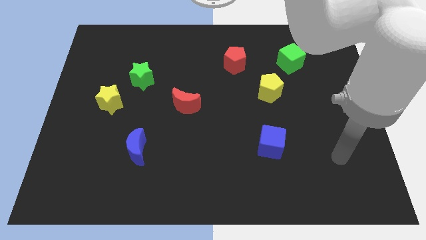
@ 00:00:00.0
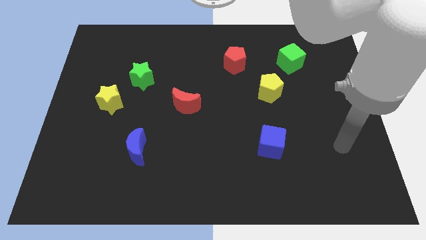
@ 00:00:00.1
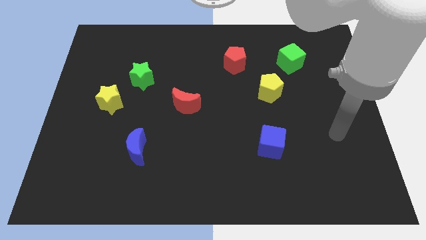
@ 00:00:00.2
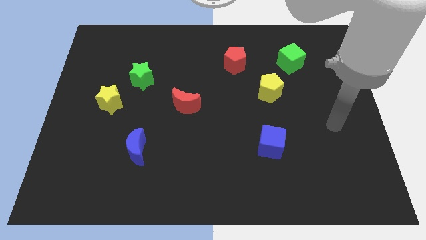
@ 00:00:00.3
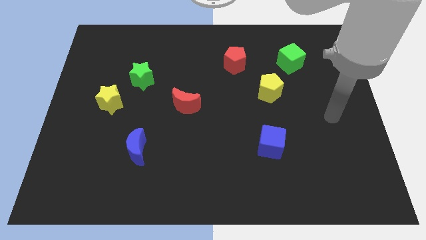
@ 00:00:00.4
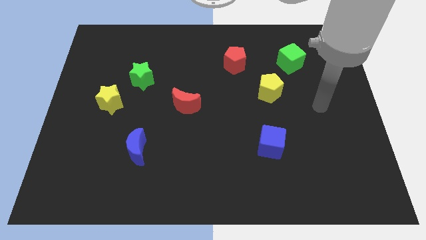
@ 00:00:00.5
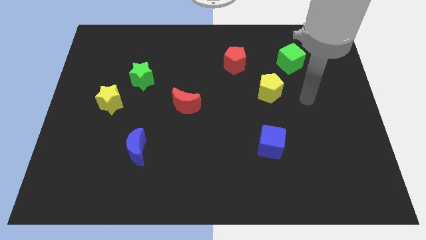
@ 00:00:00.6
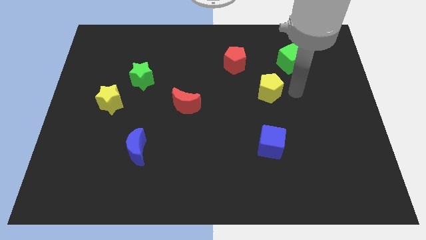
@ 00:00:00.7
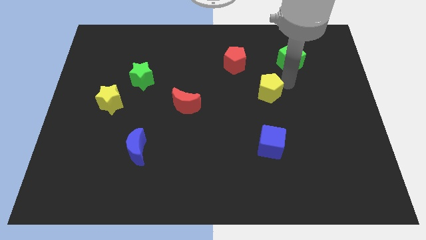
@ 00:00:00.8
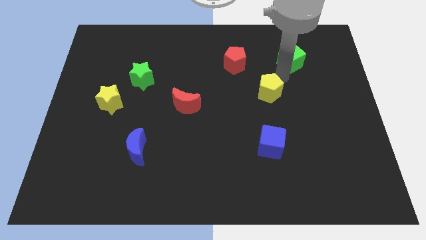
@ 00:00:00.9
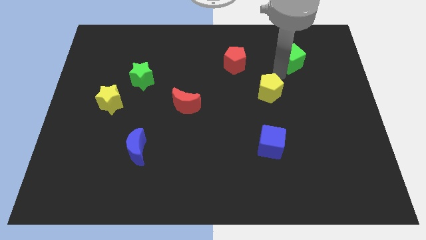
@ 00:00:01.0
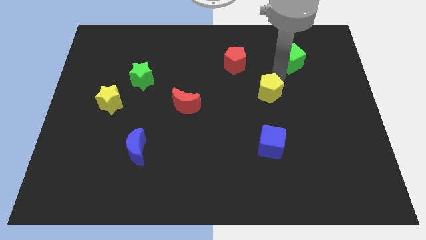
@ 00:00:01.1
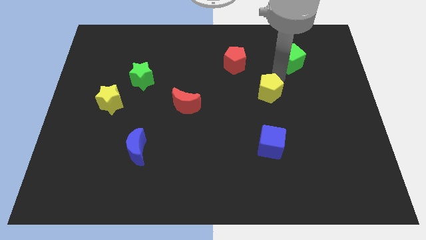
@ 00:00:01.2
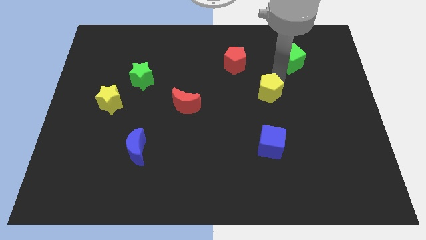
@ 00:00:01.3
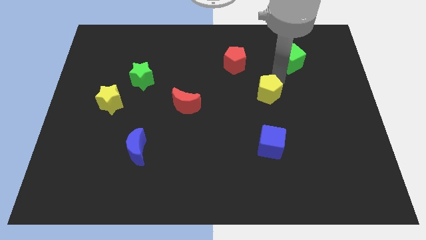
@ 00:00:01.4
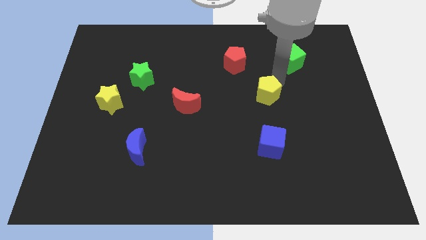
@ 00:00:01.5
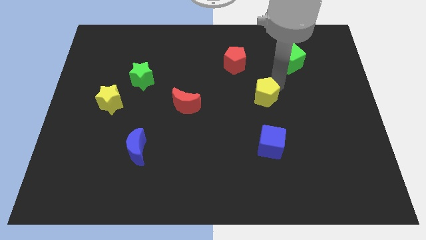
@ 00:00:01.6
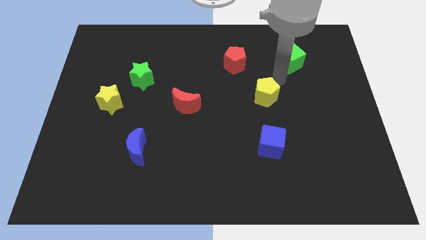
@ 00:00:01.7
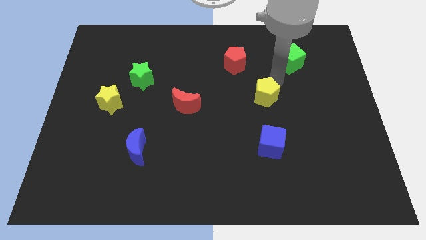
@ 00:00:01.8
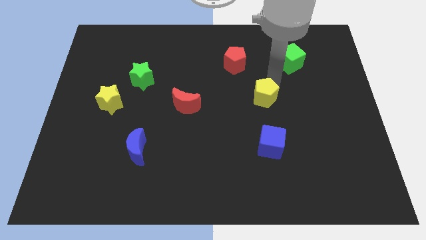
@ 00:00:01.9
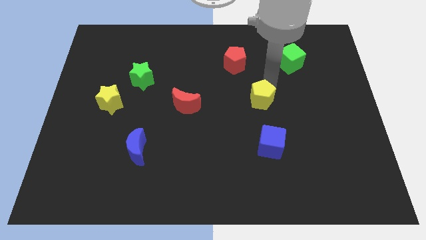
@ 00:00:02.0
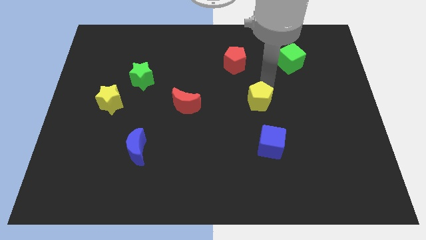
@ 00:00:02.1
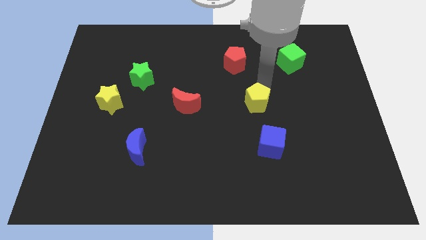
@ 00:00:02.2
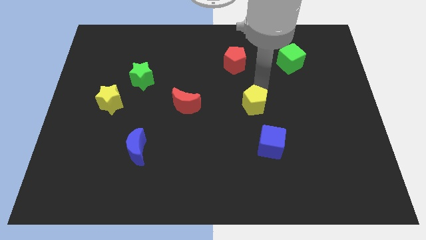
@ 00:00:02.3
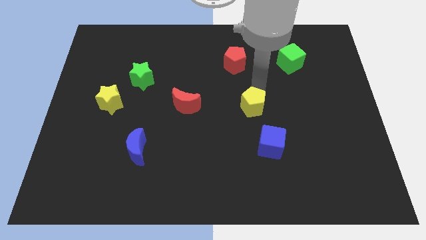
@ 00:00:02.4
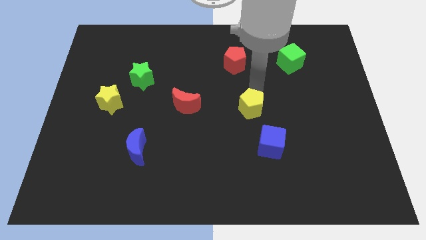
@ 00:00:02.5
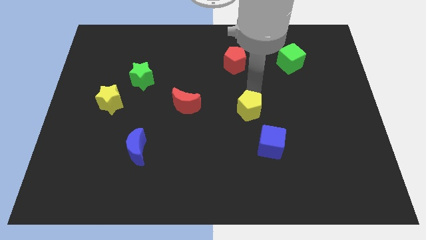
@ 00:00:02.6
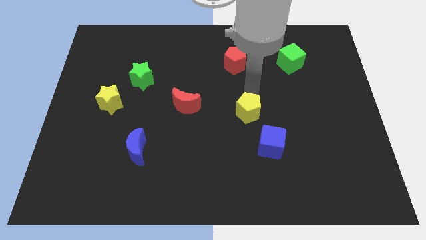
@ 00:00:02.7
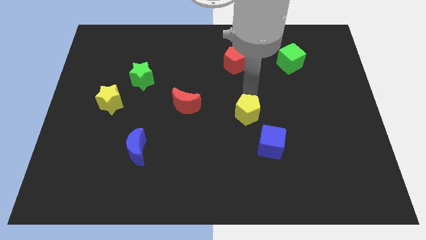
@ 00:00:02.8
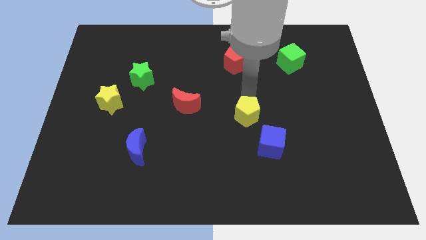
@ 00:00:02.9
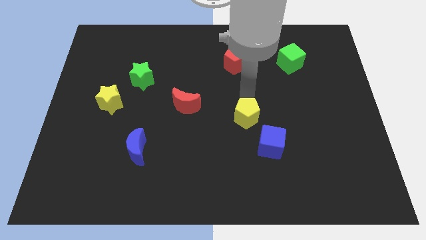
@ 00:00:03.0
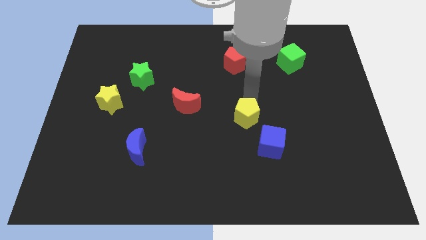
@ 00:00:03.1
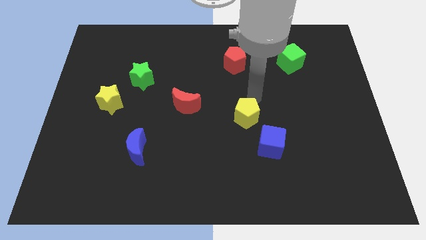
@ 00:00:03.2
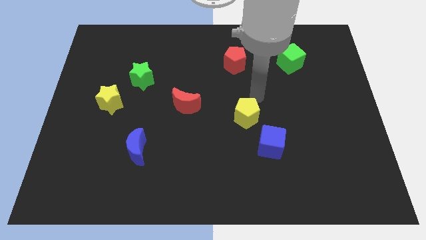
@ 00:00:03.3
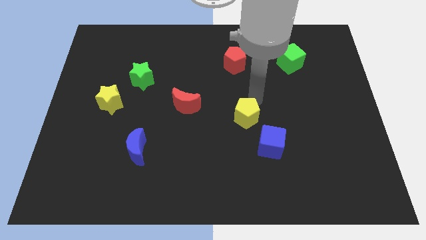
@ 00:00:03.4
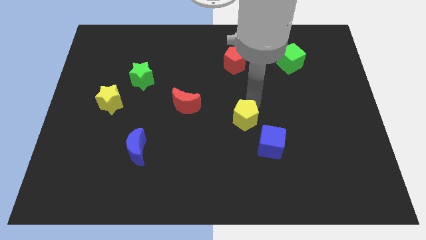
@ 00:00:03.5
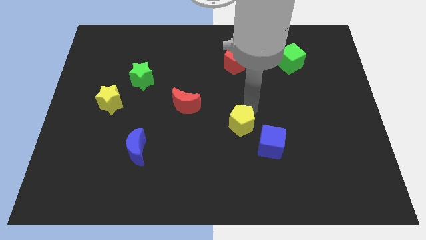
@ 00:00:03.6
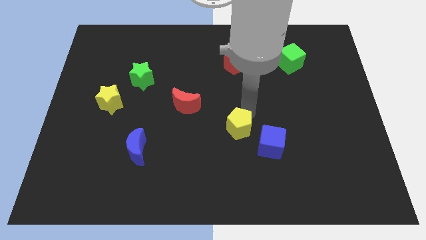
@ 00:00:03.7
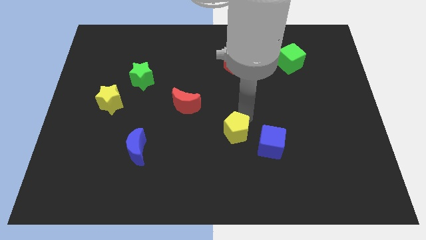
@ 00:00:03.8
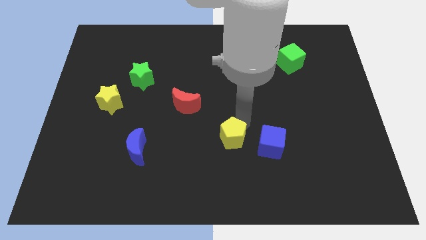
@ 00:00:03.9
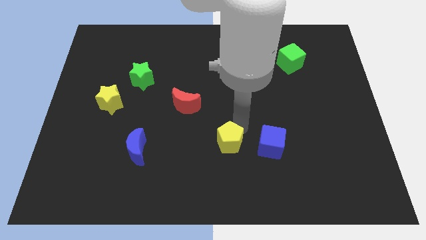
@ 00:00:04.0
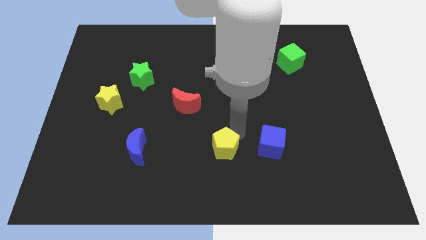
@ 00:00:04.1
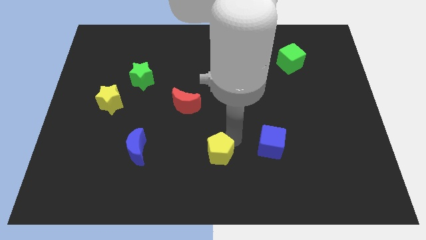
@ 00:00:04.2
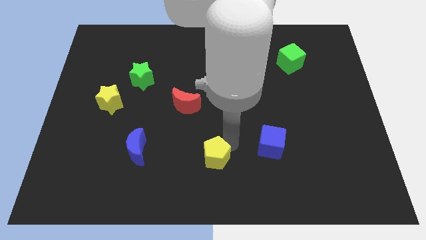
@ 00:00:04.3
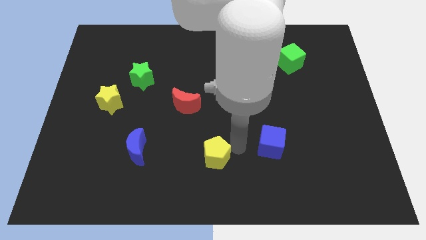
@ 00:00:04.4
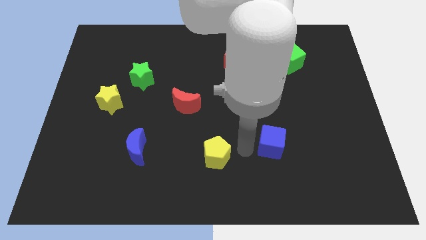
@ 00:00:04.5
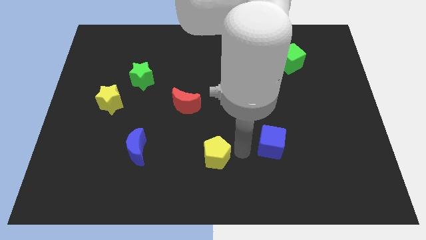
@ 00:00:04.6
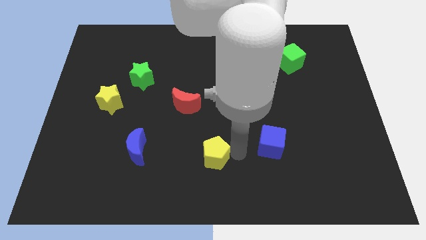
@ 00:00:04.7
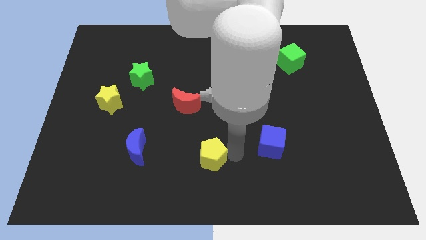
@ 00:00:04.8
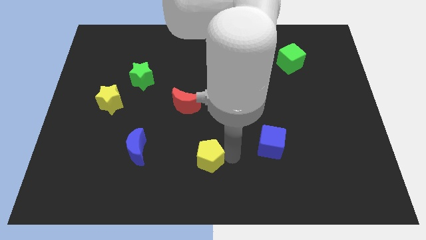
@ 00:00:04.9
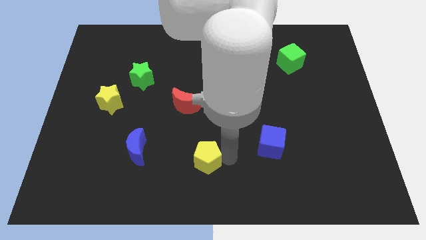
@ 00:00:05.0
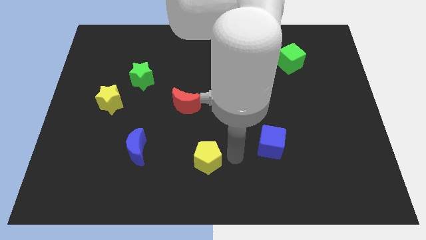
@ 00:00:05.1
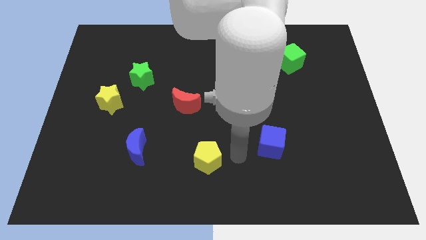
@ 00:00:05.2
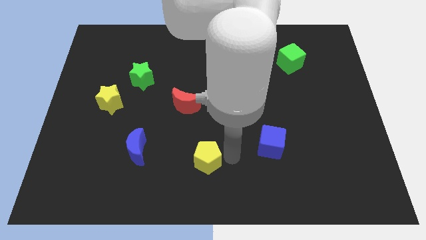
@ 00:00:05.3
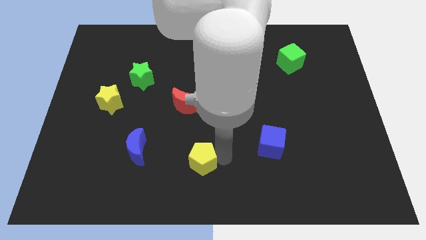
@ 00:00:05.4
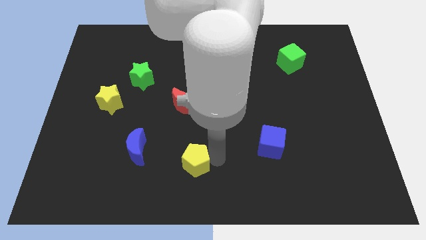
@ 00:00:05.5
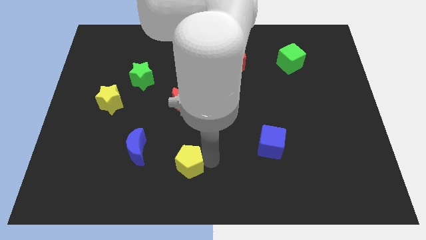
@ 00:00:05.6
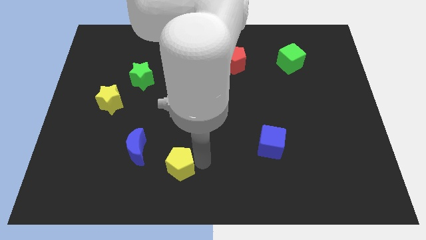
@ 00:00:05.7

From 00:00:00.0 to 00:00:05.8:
push the yellow pentagon to the bottom right of the blue moon

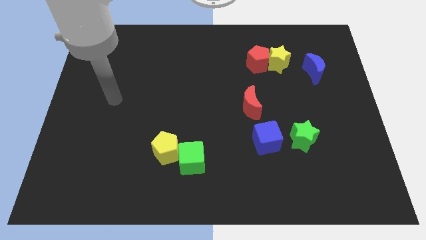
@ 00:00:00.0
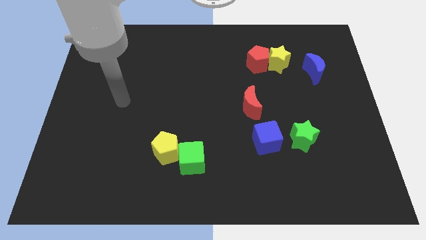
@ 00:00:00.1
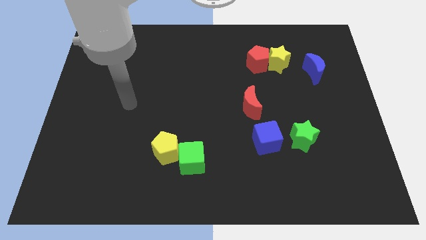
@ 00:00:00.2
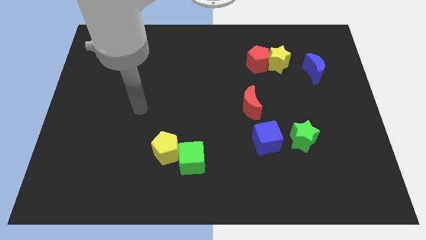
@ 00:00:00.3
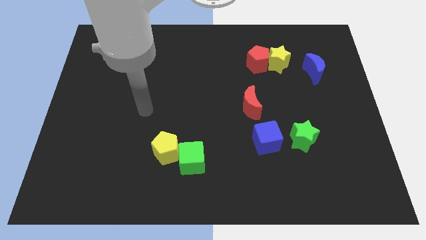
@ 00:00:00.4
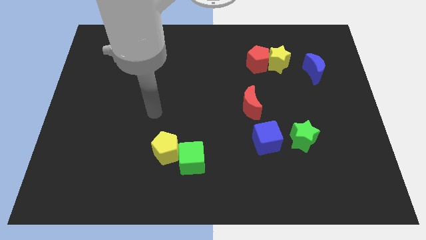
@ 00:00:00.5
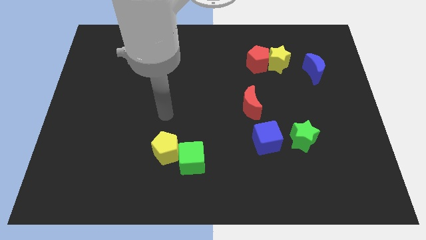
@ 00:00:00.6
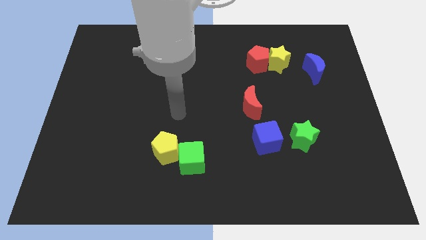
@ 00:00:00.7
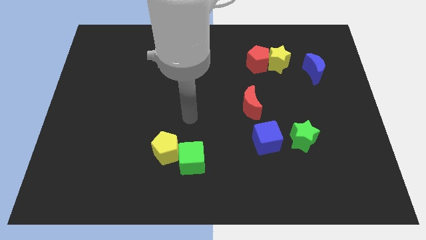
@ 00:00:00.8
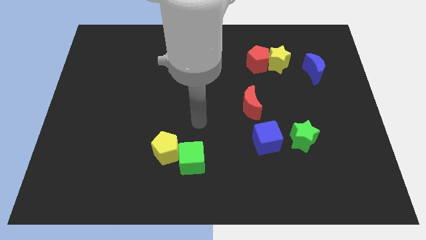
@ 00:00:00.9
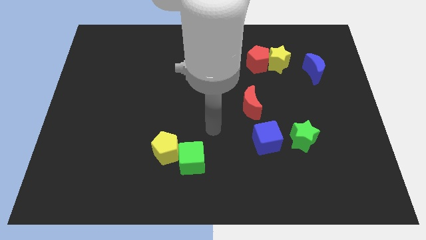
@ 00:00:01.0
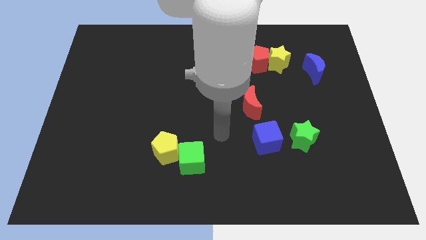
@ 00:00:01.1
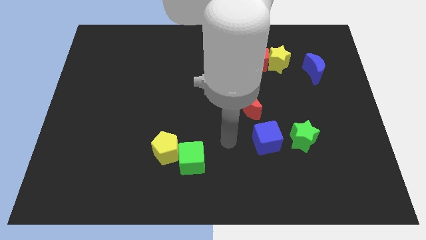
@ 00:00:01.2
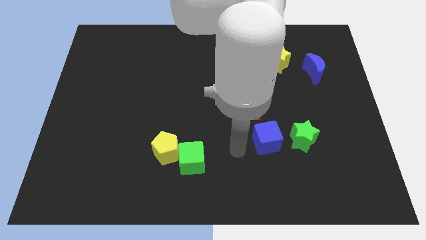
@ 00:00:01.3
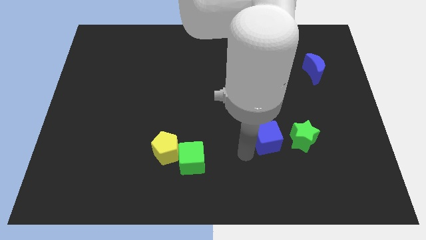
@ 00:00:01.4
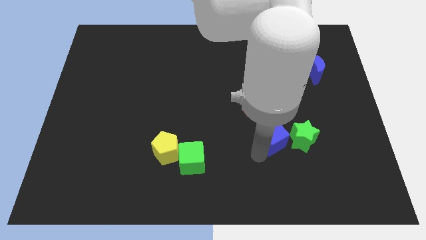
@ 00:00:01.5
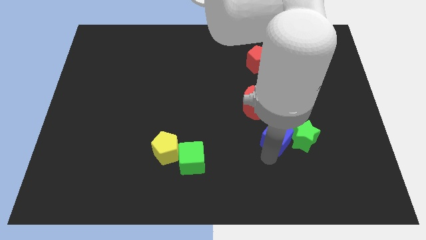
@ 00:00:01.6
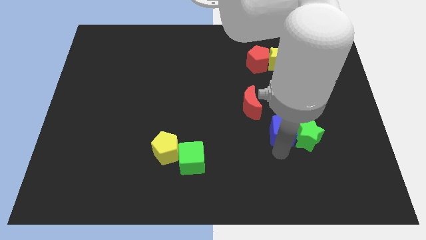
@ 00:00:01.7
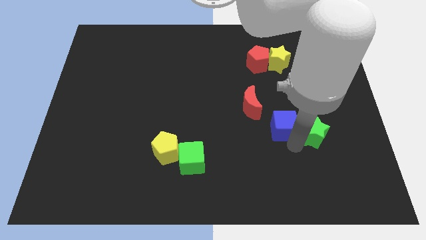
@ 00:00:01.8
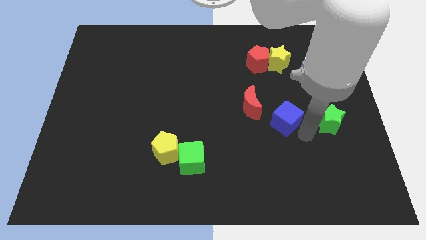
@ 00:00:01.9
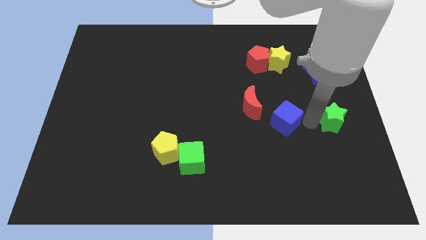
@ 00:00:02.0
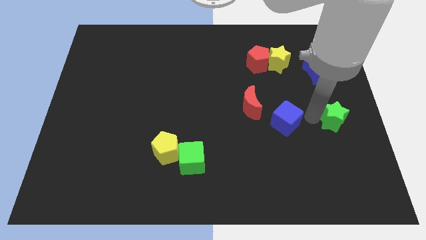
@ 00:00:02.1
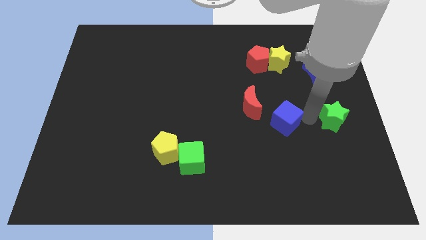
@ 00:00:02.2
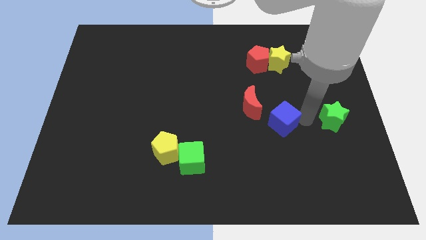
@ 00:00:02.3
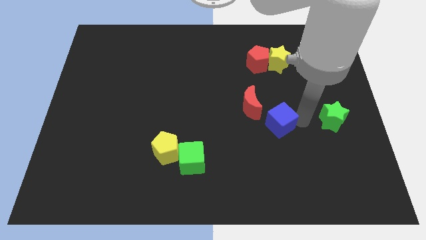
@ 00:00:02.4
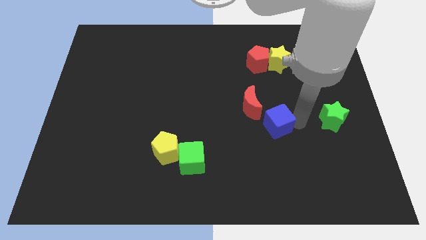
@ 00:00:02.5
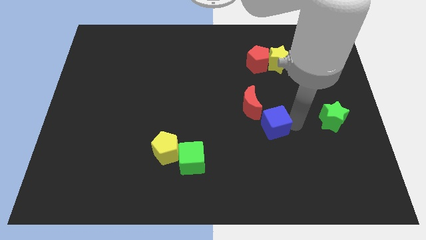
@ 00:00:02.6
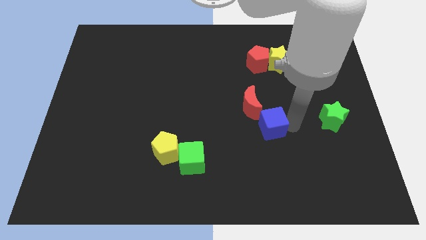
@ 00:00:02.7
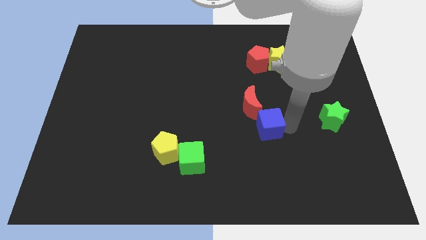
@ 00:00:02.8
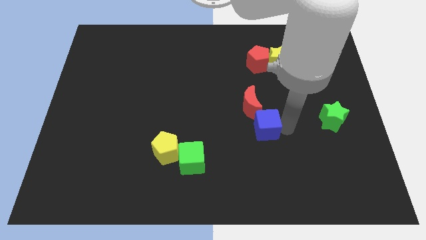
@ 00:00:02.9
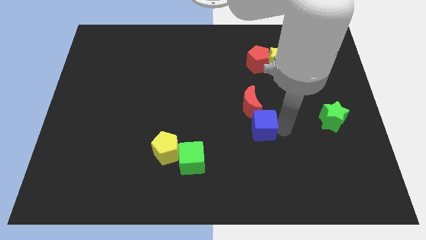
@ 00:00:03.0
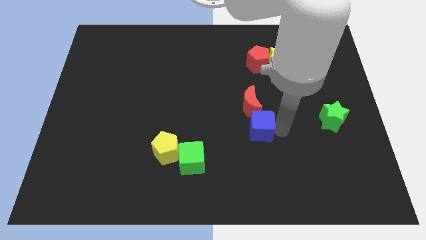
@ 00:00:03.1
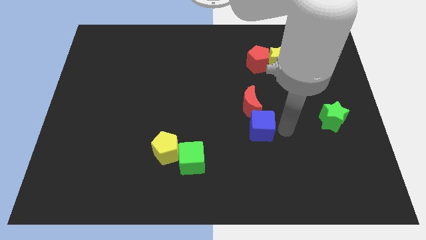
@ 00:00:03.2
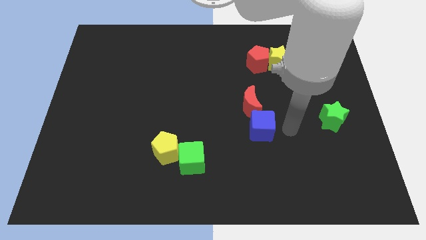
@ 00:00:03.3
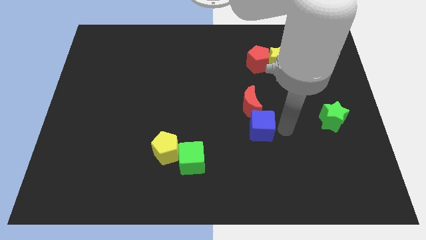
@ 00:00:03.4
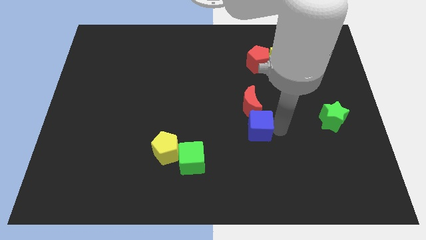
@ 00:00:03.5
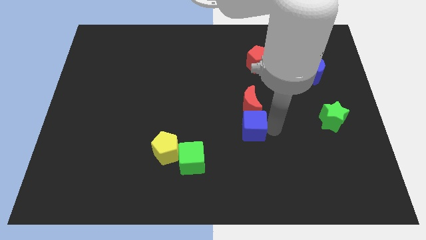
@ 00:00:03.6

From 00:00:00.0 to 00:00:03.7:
push the blue cube to the bottom left of the red moon
